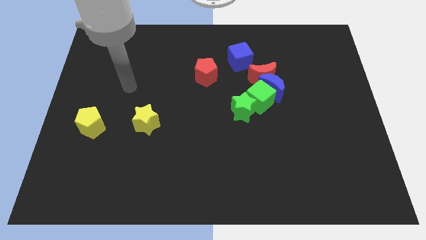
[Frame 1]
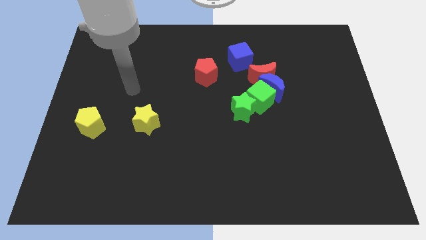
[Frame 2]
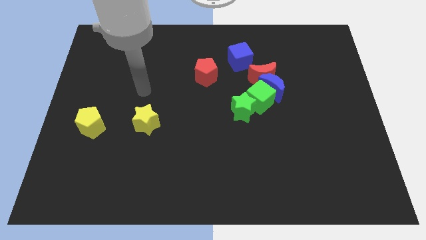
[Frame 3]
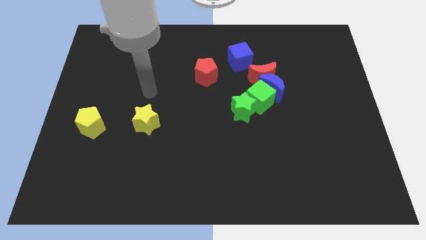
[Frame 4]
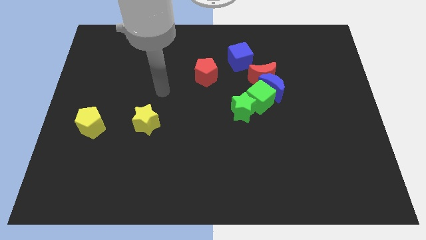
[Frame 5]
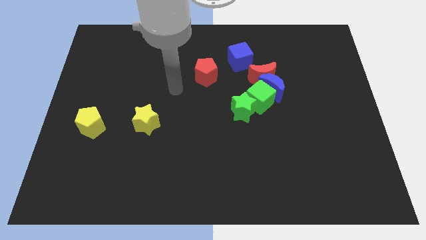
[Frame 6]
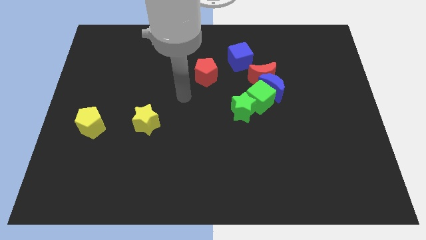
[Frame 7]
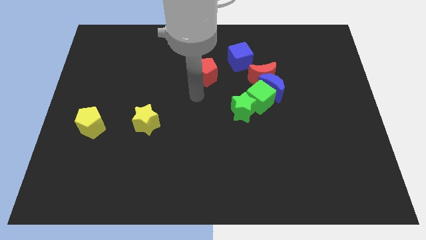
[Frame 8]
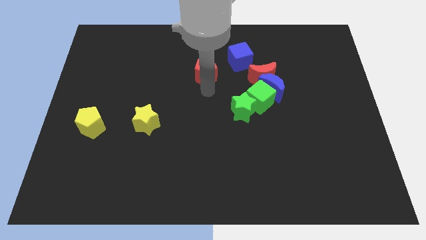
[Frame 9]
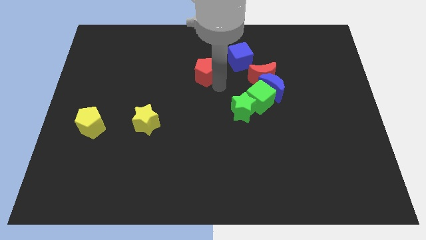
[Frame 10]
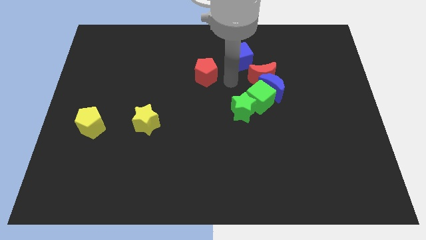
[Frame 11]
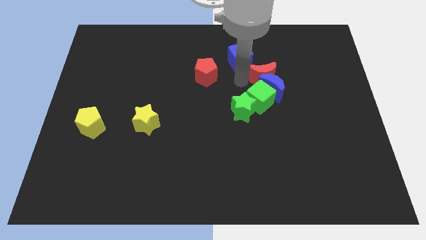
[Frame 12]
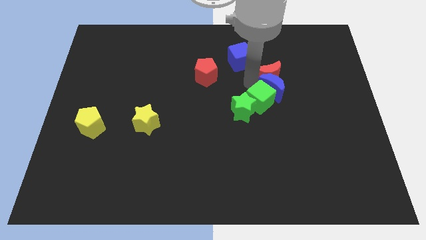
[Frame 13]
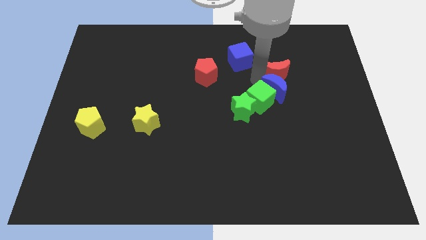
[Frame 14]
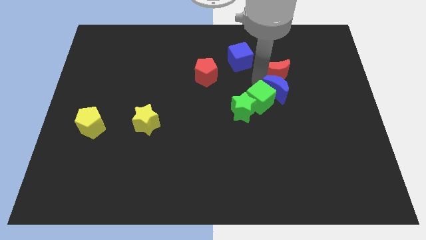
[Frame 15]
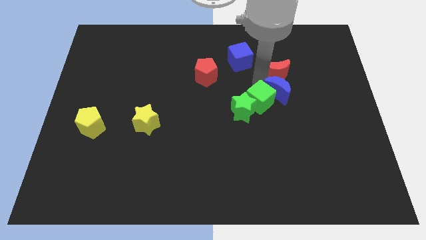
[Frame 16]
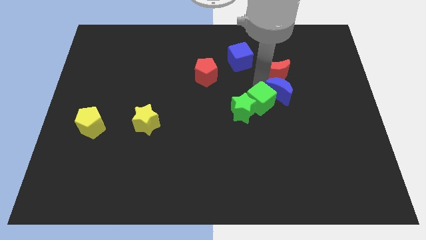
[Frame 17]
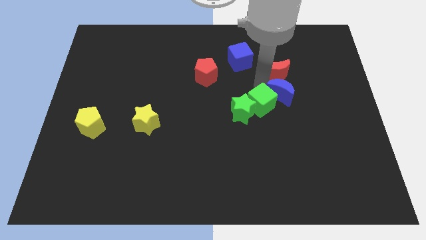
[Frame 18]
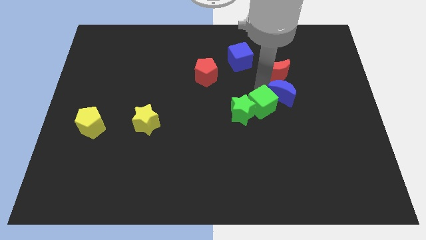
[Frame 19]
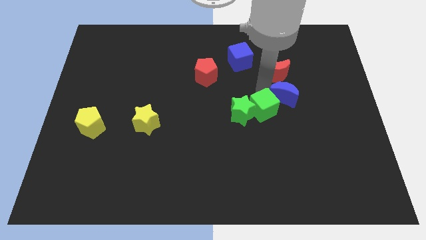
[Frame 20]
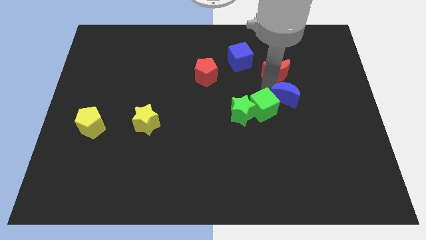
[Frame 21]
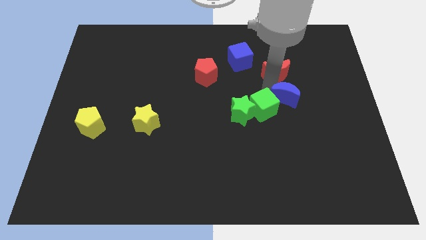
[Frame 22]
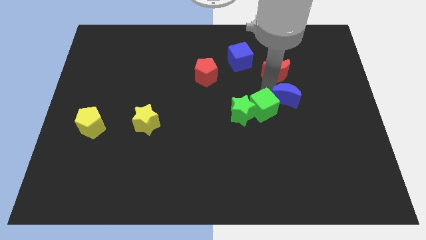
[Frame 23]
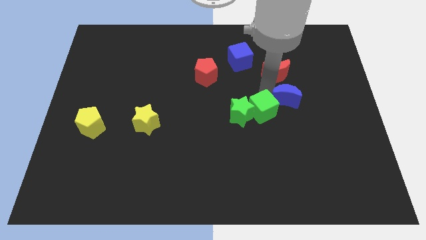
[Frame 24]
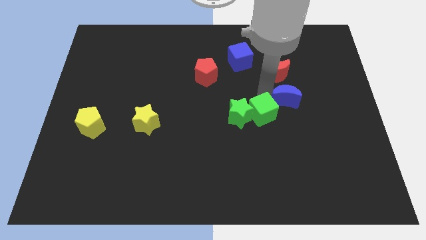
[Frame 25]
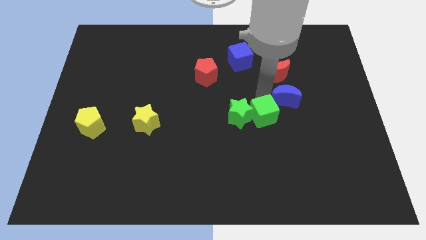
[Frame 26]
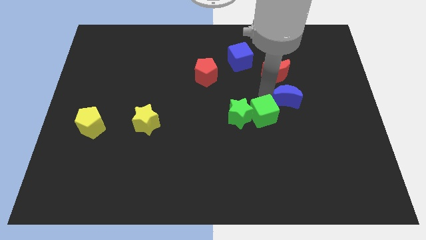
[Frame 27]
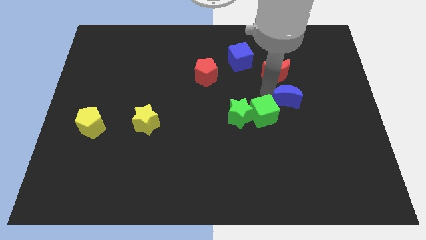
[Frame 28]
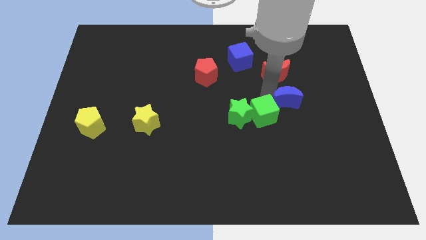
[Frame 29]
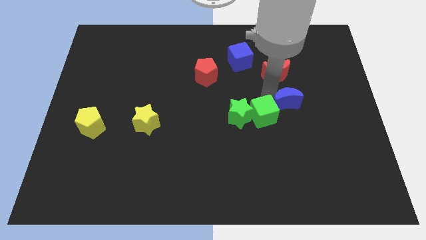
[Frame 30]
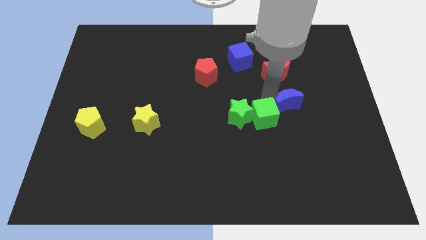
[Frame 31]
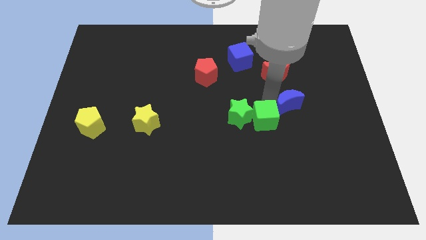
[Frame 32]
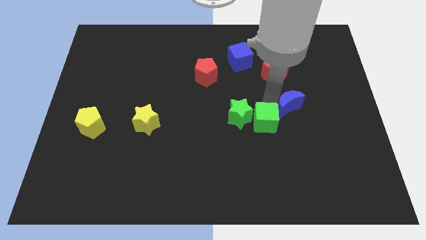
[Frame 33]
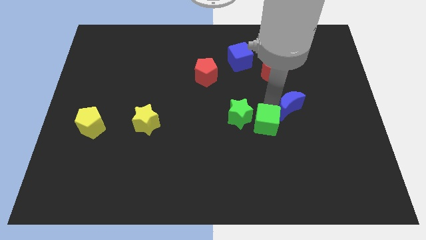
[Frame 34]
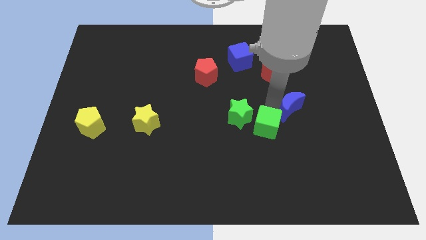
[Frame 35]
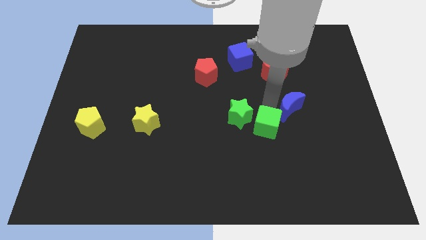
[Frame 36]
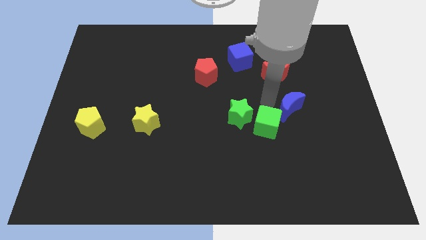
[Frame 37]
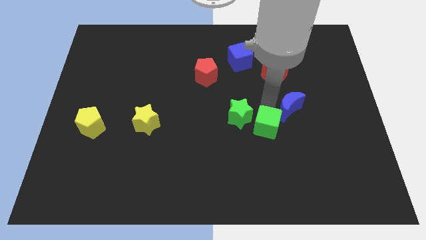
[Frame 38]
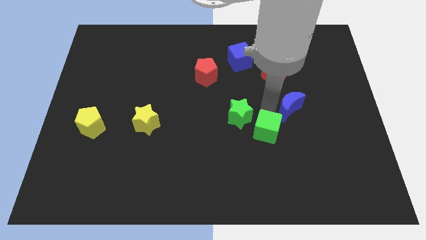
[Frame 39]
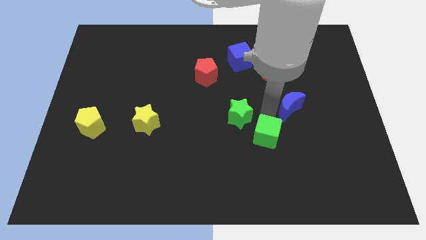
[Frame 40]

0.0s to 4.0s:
move the green cube away from the clump

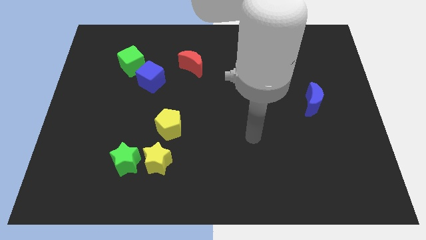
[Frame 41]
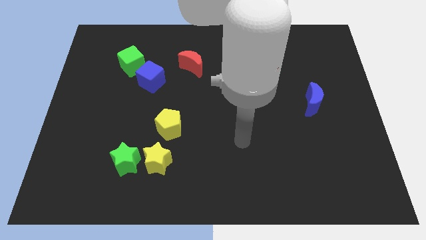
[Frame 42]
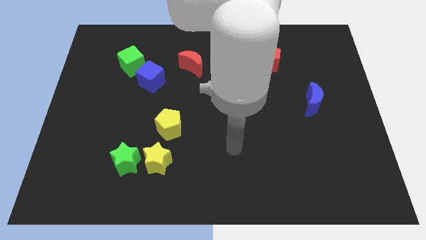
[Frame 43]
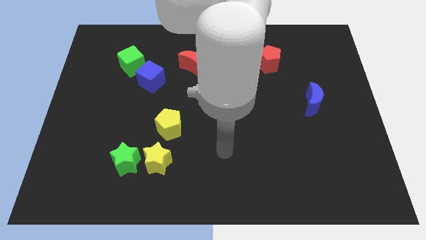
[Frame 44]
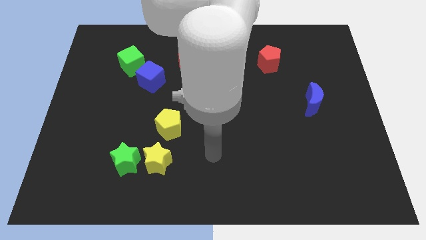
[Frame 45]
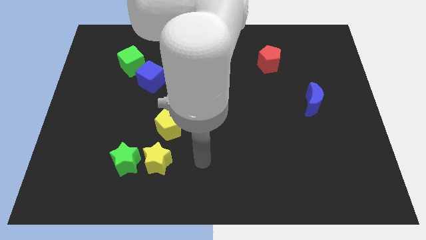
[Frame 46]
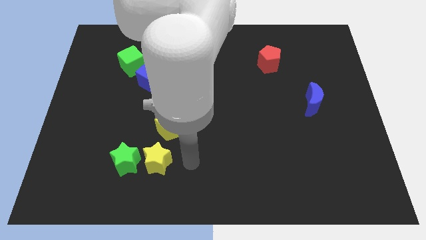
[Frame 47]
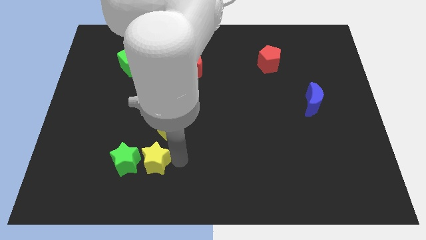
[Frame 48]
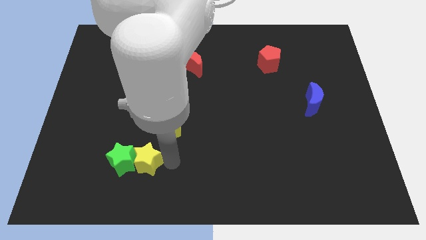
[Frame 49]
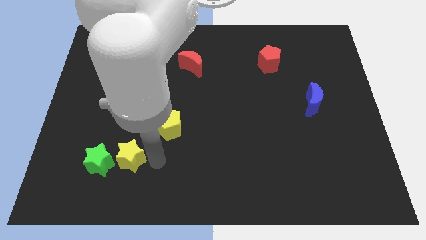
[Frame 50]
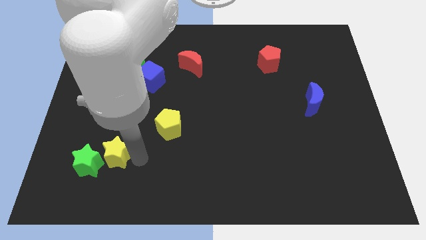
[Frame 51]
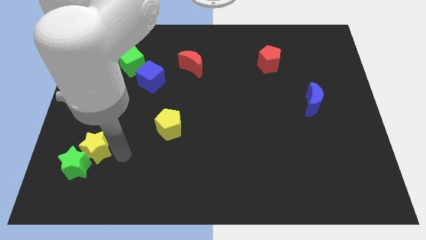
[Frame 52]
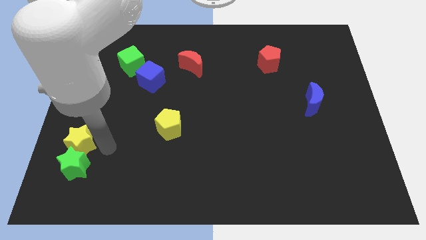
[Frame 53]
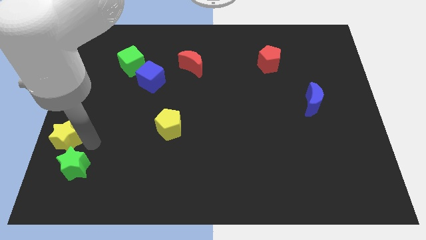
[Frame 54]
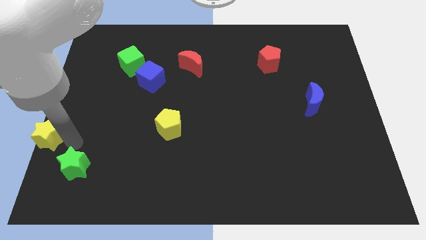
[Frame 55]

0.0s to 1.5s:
move the green star away from the yellow star

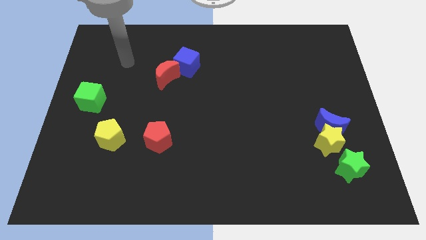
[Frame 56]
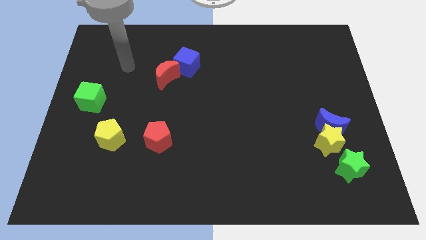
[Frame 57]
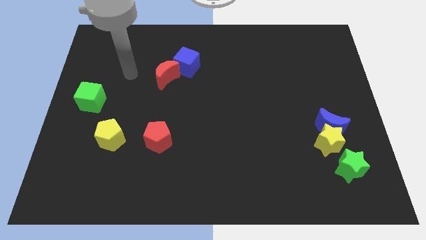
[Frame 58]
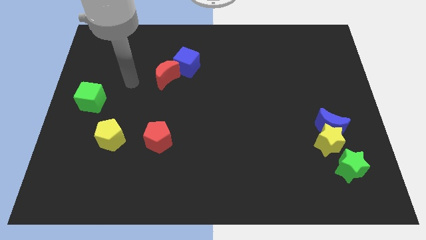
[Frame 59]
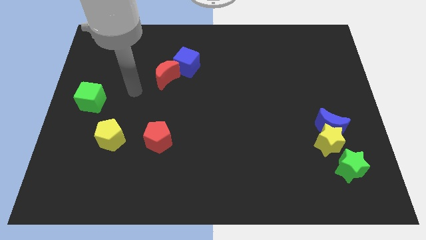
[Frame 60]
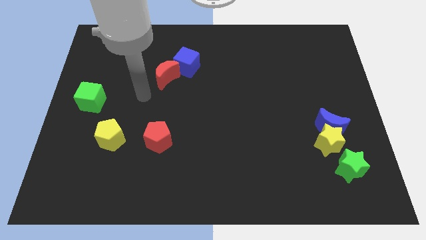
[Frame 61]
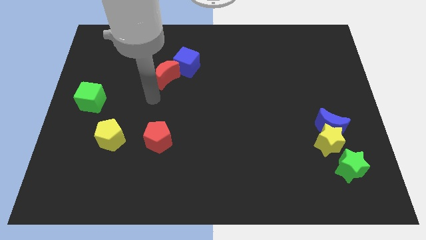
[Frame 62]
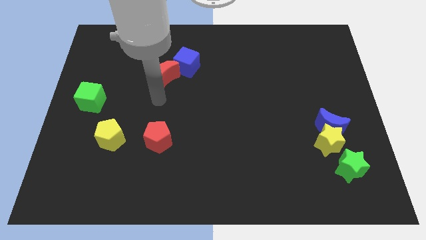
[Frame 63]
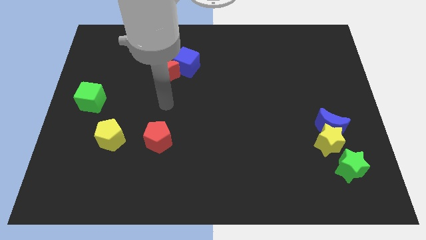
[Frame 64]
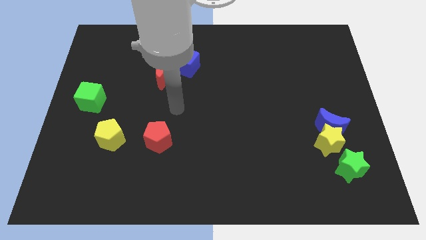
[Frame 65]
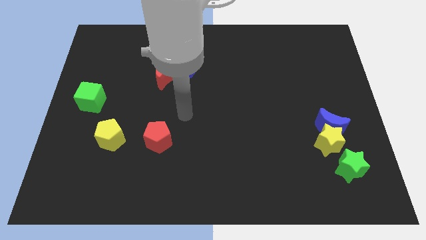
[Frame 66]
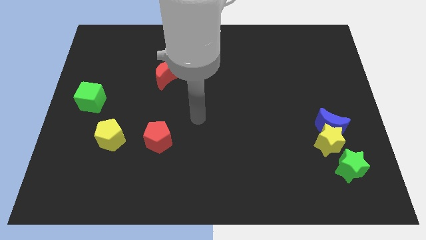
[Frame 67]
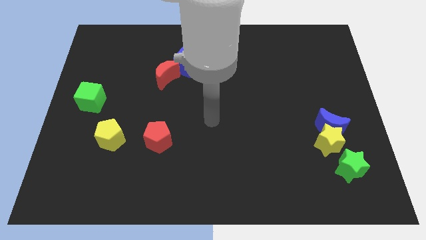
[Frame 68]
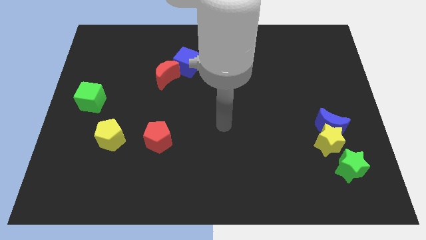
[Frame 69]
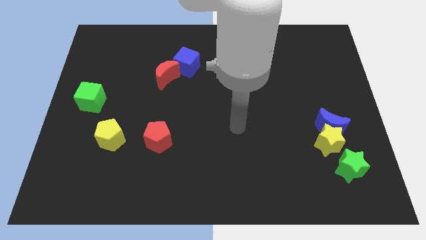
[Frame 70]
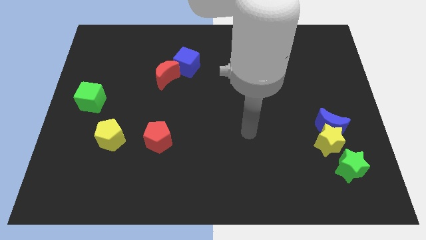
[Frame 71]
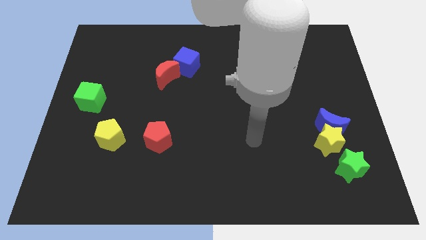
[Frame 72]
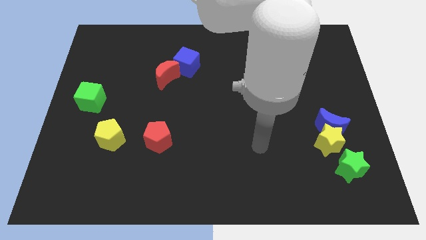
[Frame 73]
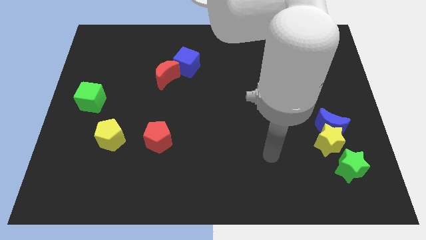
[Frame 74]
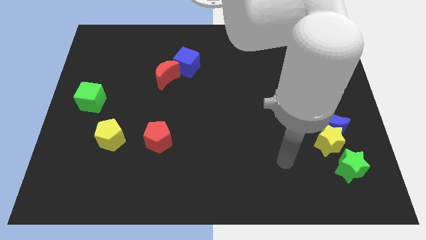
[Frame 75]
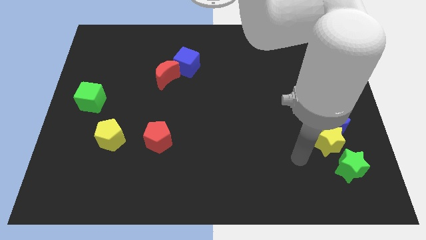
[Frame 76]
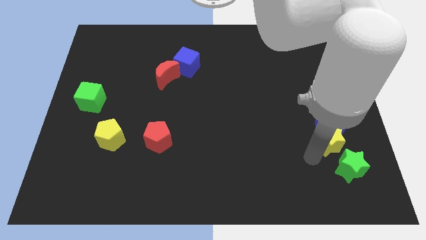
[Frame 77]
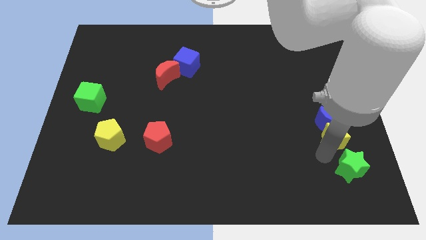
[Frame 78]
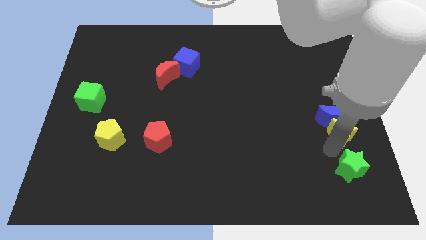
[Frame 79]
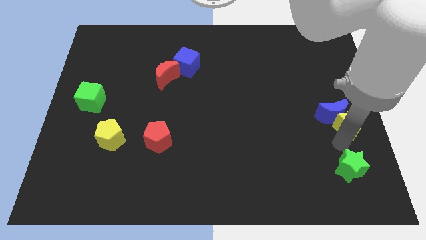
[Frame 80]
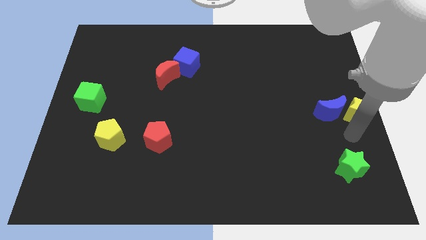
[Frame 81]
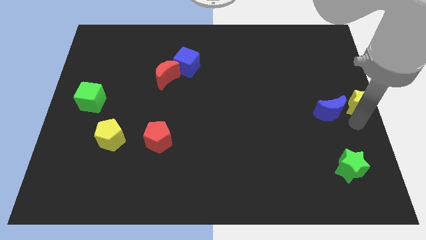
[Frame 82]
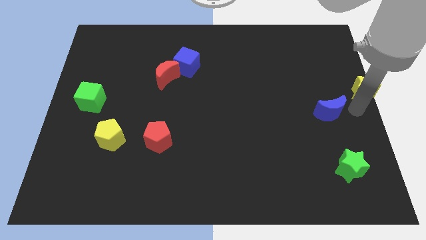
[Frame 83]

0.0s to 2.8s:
pull the blue moon apart from the yellow star

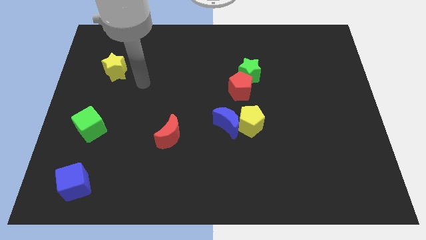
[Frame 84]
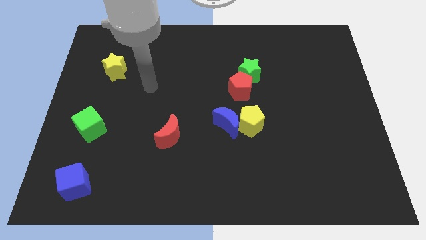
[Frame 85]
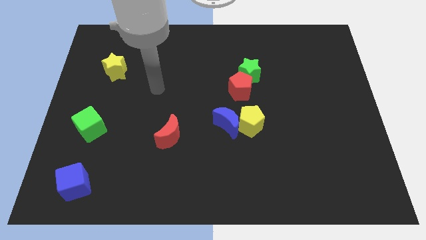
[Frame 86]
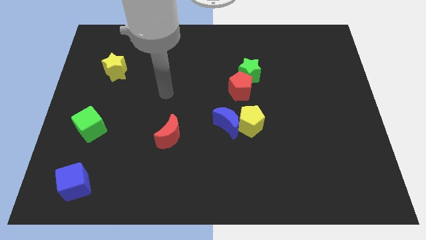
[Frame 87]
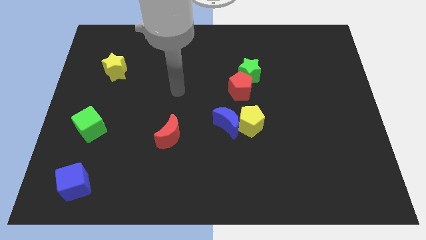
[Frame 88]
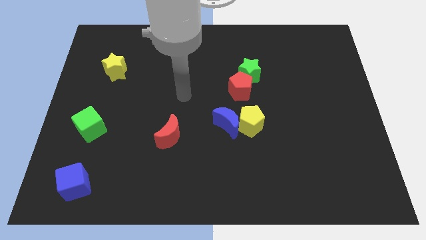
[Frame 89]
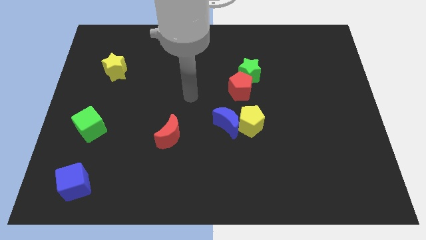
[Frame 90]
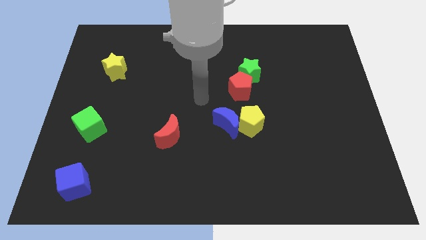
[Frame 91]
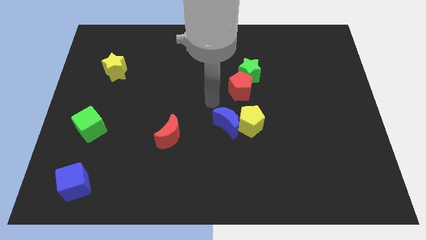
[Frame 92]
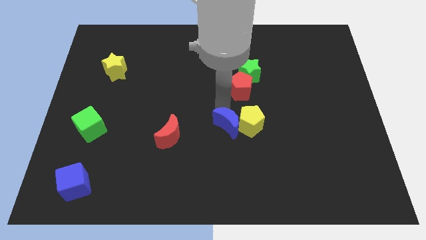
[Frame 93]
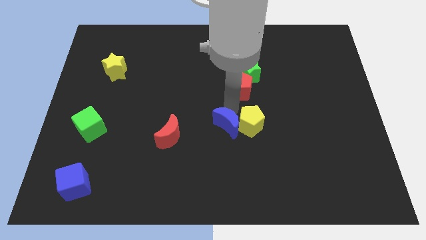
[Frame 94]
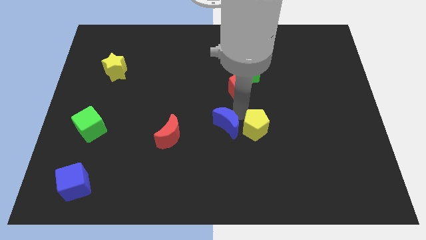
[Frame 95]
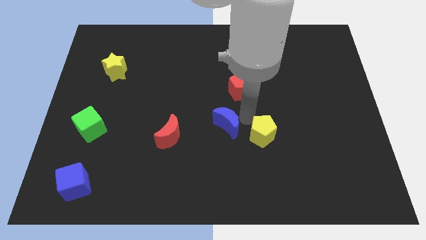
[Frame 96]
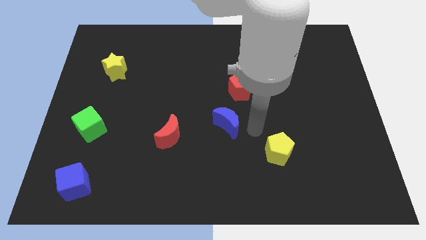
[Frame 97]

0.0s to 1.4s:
pull the blue moon apart from the yellow pentagon
